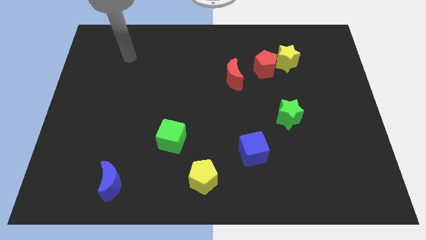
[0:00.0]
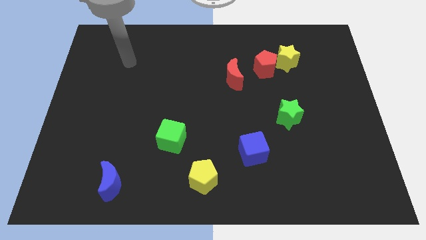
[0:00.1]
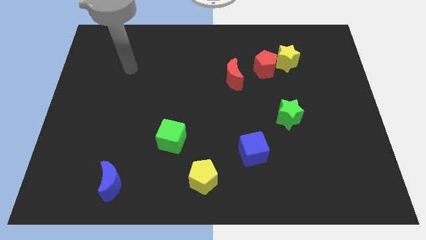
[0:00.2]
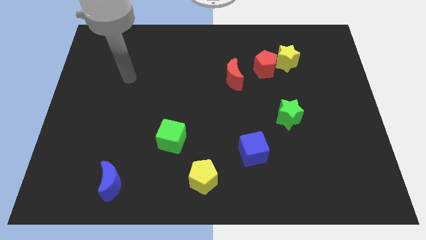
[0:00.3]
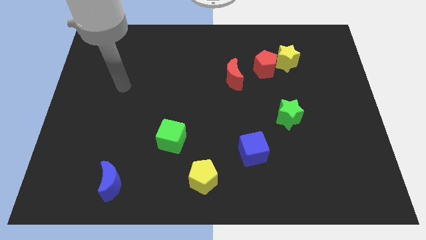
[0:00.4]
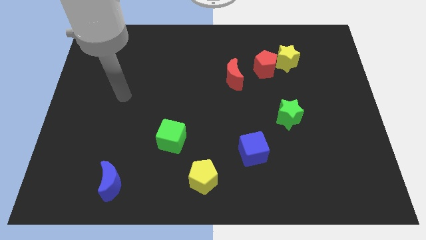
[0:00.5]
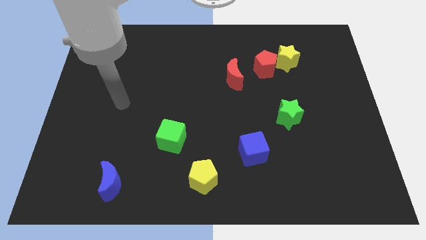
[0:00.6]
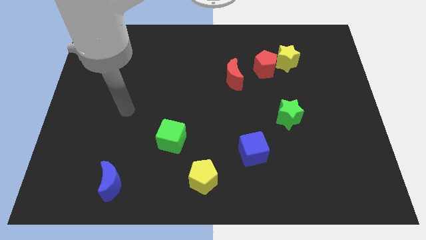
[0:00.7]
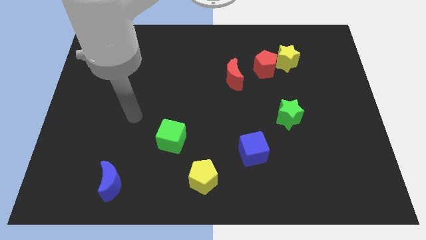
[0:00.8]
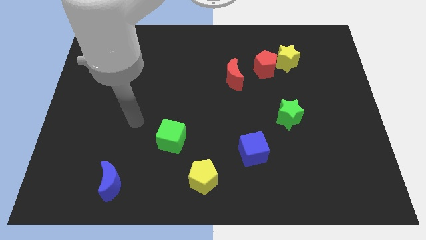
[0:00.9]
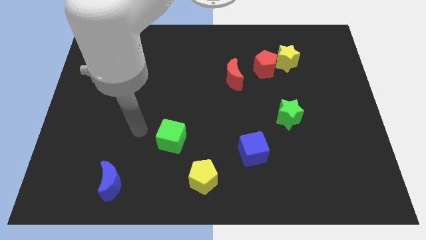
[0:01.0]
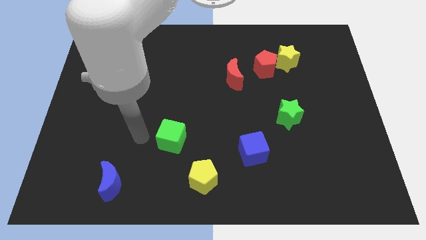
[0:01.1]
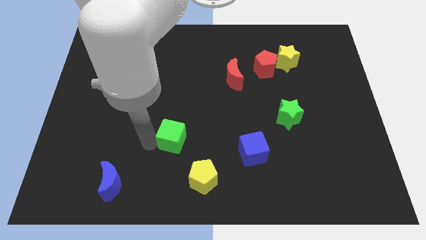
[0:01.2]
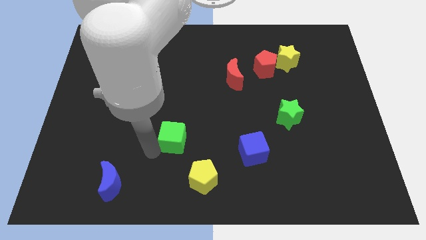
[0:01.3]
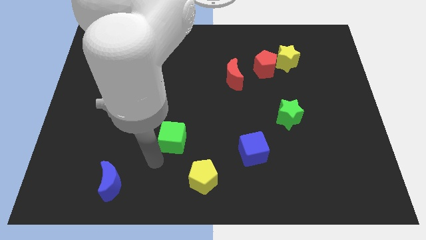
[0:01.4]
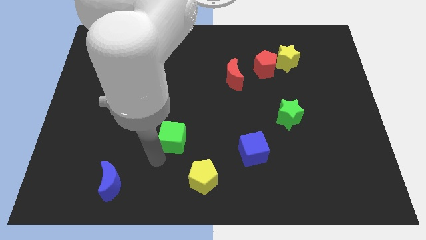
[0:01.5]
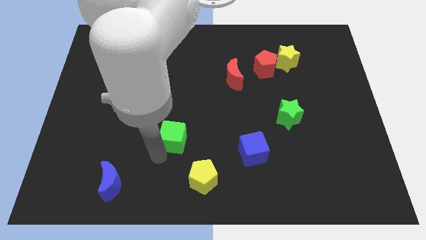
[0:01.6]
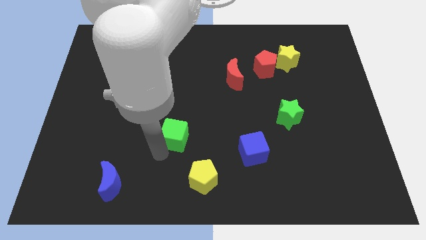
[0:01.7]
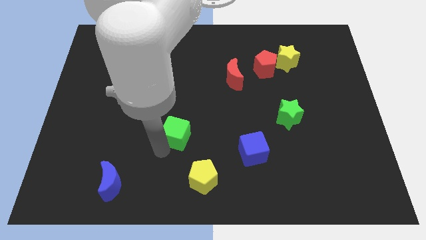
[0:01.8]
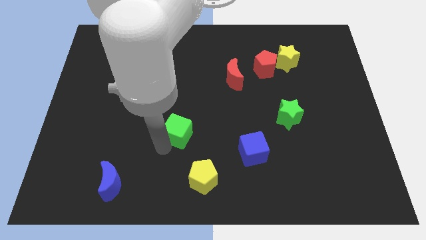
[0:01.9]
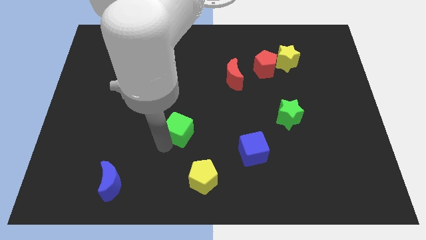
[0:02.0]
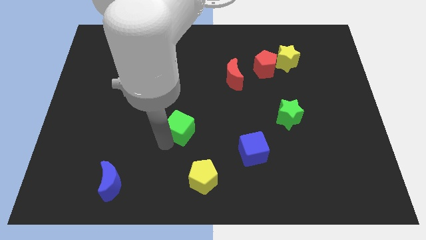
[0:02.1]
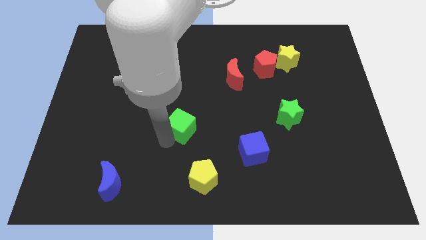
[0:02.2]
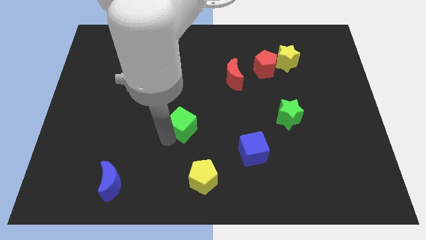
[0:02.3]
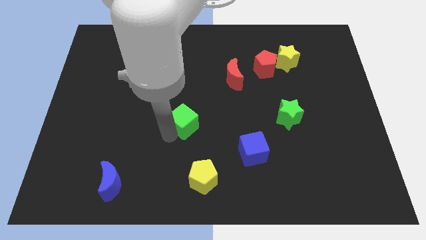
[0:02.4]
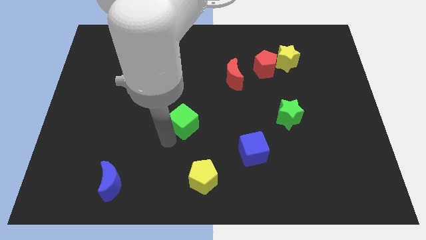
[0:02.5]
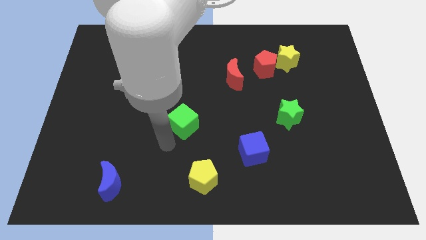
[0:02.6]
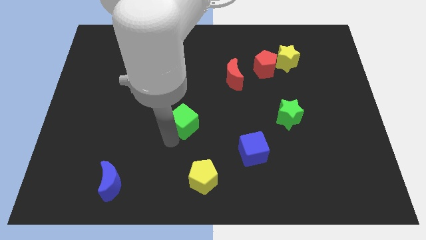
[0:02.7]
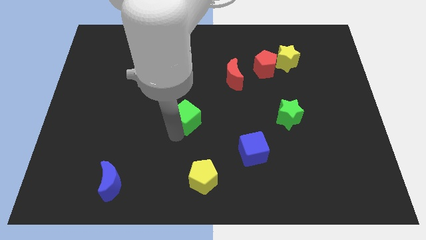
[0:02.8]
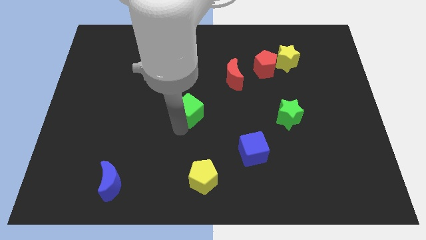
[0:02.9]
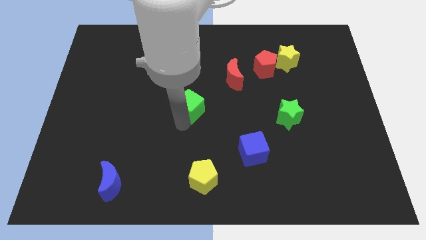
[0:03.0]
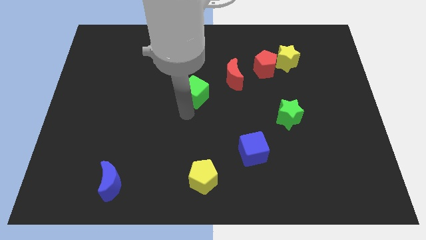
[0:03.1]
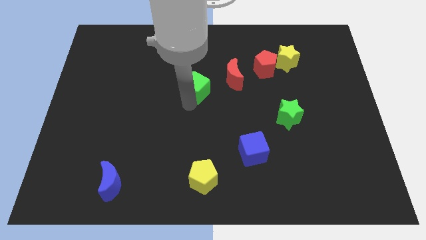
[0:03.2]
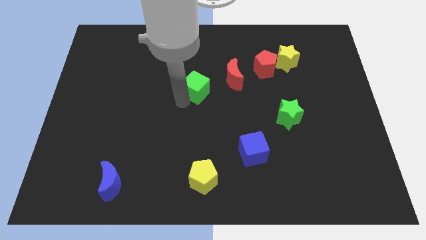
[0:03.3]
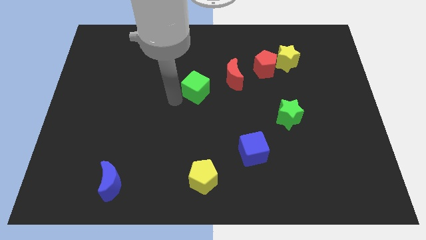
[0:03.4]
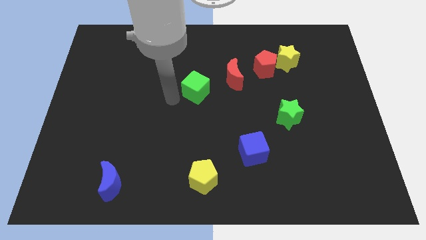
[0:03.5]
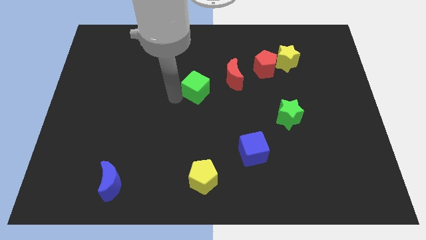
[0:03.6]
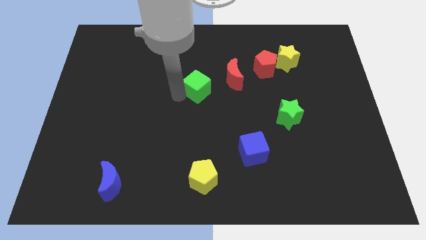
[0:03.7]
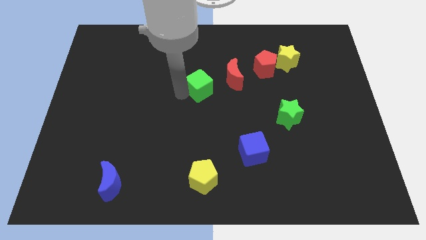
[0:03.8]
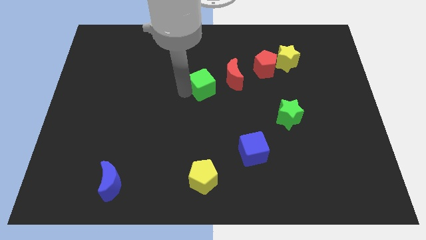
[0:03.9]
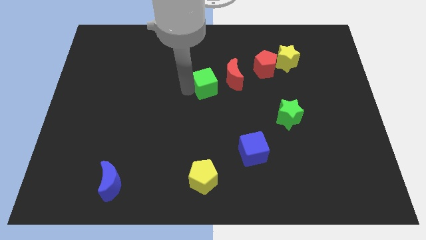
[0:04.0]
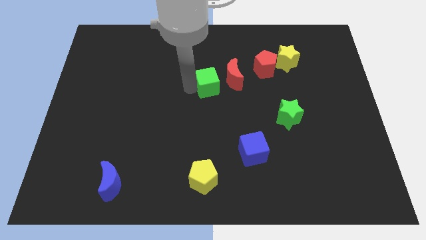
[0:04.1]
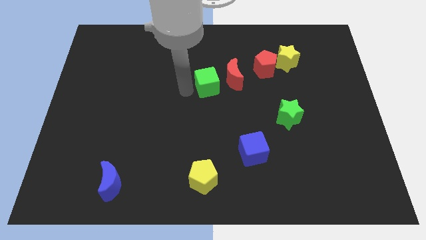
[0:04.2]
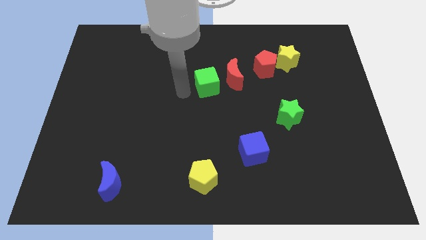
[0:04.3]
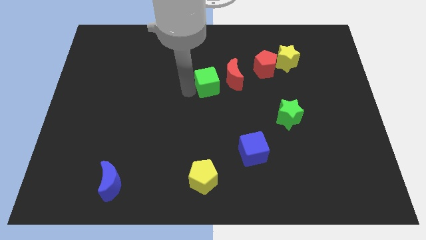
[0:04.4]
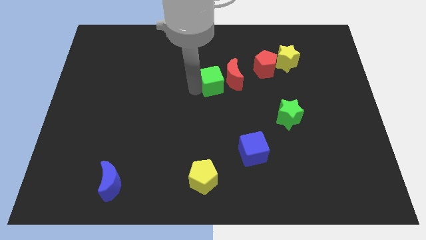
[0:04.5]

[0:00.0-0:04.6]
push the green cube to the red moon

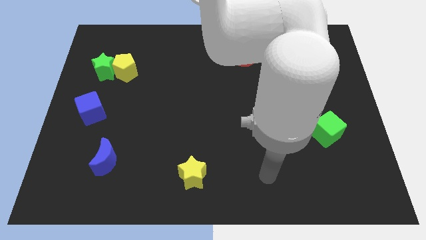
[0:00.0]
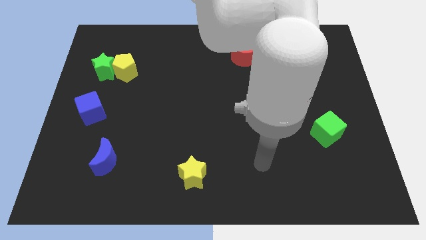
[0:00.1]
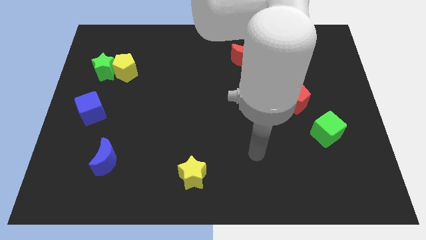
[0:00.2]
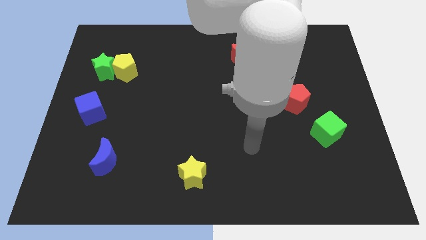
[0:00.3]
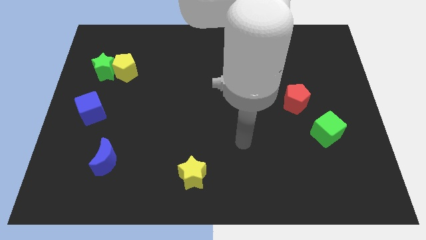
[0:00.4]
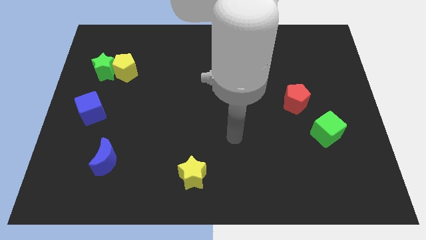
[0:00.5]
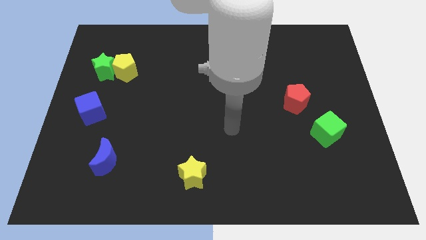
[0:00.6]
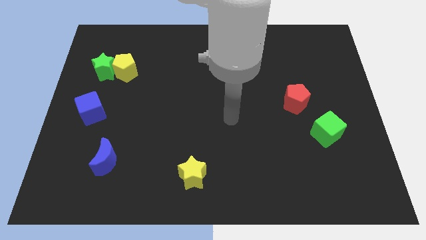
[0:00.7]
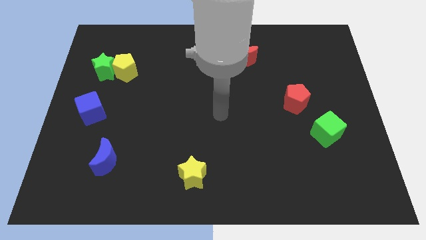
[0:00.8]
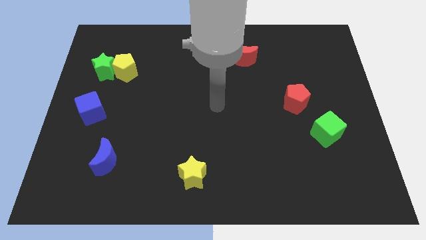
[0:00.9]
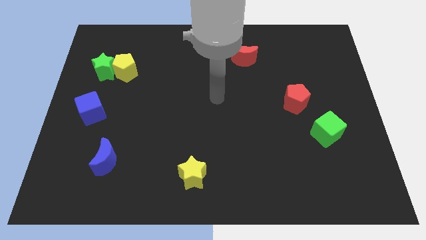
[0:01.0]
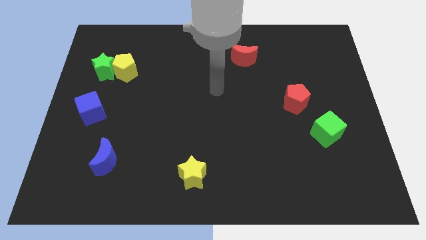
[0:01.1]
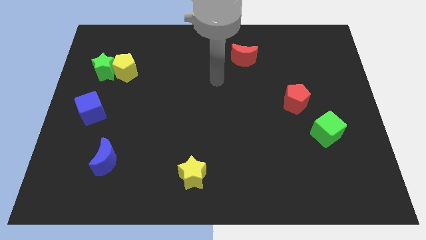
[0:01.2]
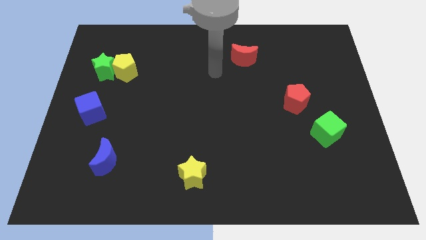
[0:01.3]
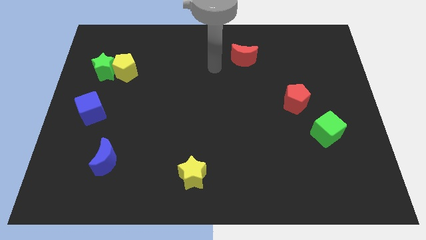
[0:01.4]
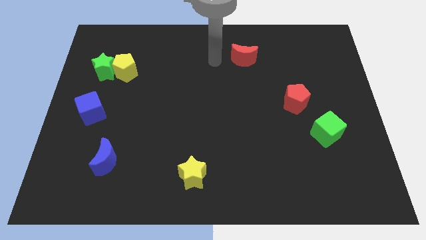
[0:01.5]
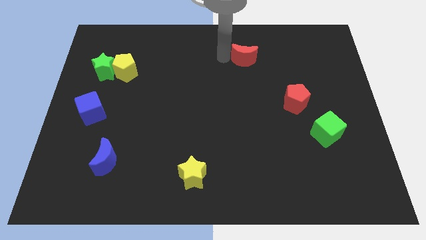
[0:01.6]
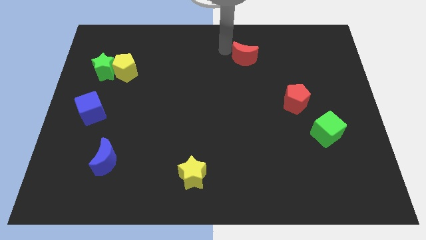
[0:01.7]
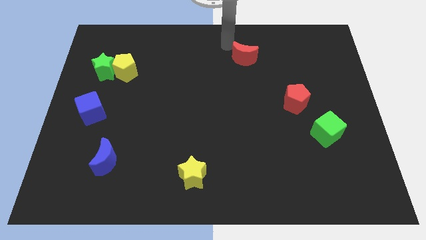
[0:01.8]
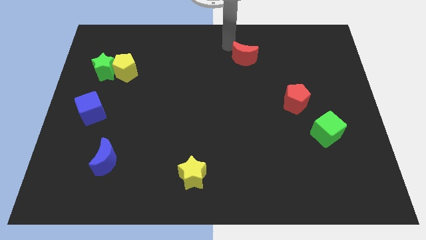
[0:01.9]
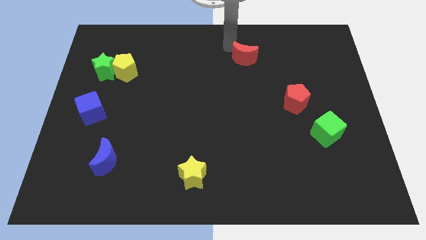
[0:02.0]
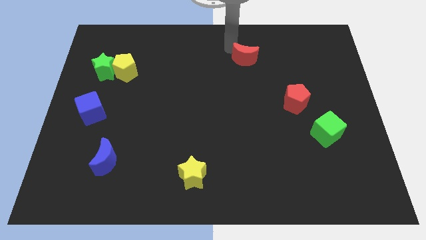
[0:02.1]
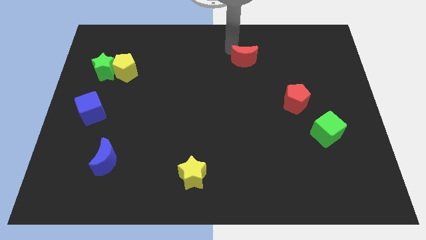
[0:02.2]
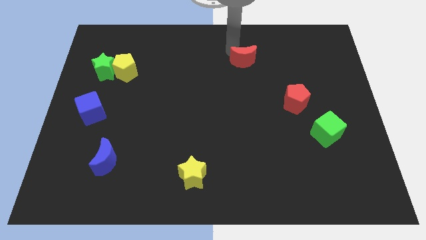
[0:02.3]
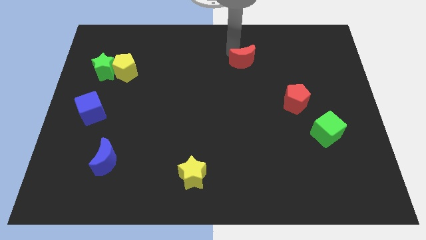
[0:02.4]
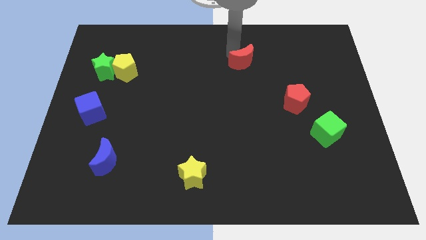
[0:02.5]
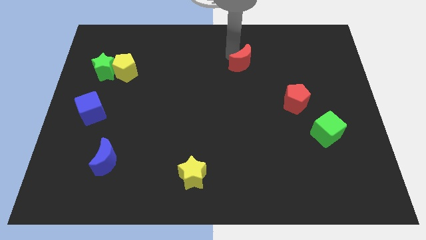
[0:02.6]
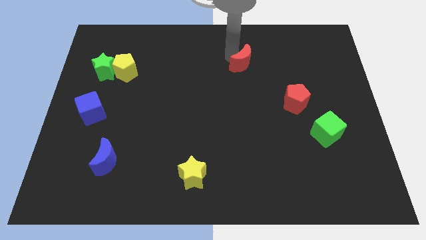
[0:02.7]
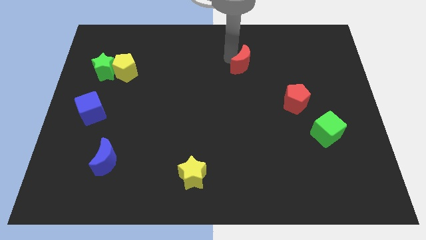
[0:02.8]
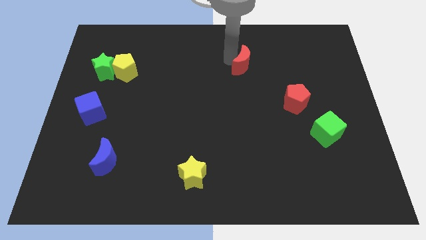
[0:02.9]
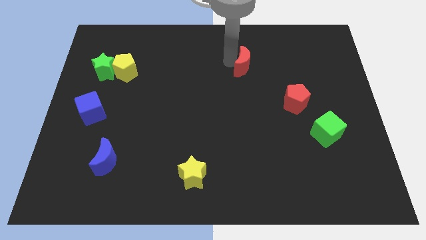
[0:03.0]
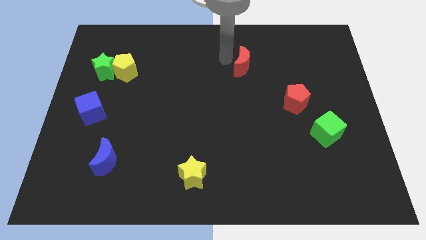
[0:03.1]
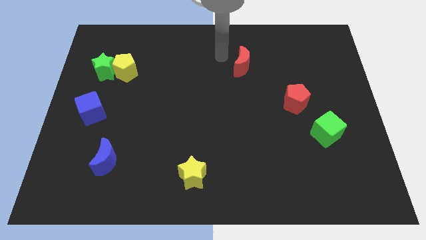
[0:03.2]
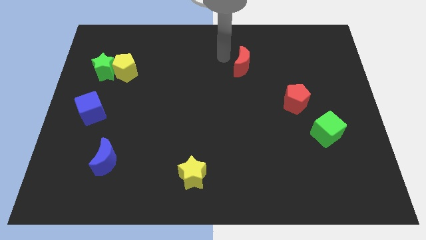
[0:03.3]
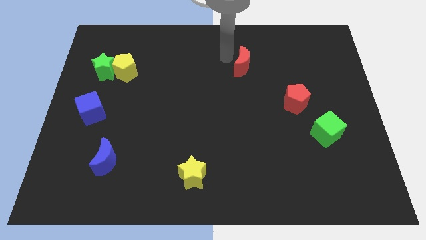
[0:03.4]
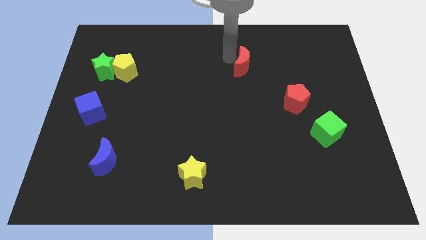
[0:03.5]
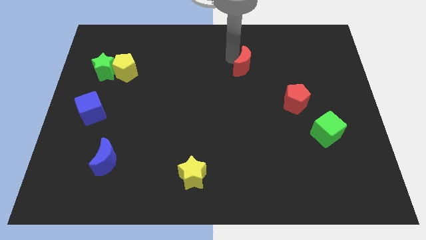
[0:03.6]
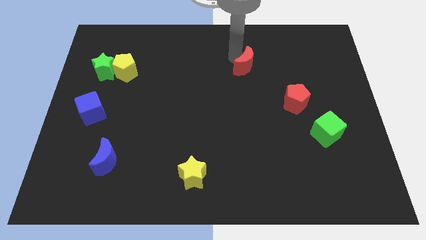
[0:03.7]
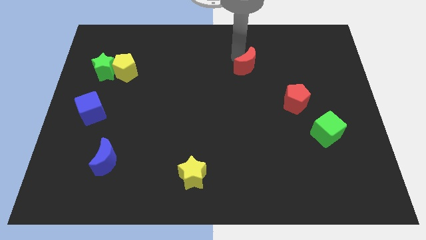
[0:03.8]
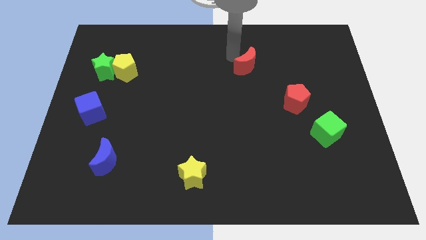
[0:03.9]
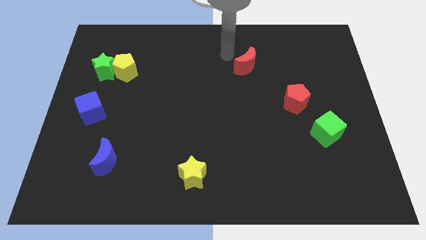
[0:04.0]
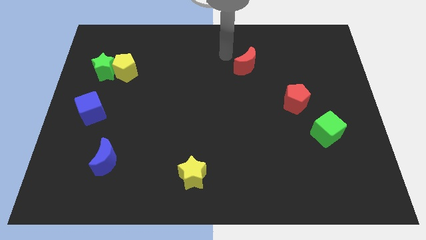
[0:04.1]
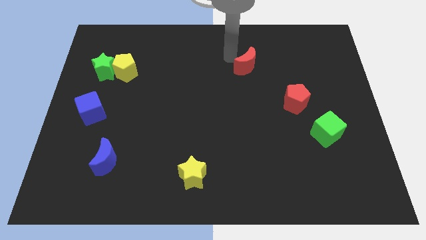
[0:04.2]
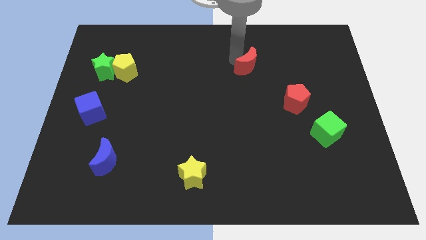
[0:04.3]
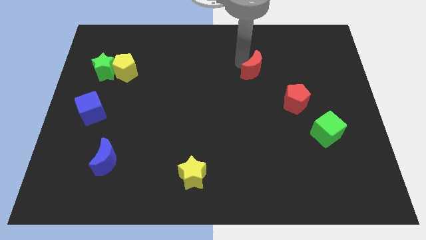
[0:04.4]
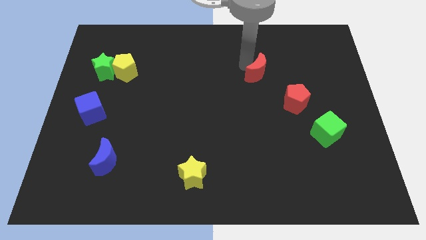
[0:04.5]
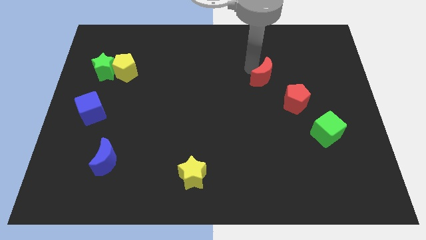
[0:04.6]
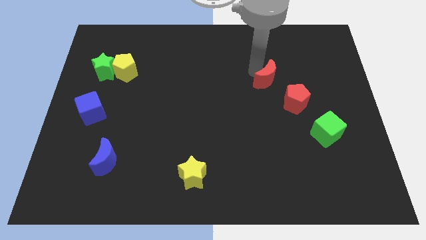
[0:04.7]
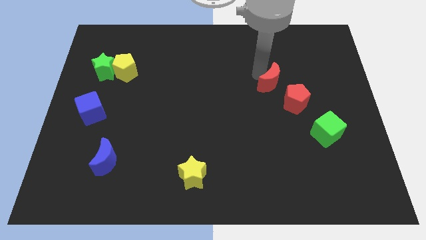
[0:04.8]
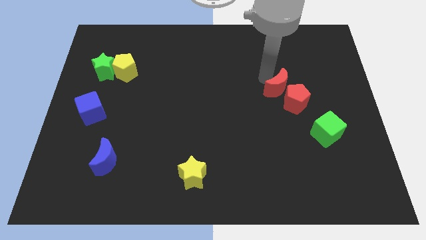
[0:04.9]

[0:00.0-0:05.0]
push the red moon to the red pentagon
